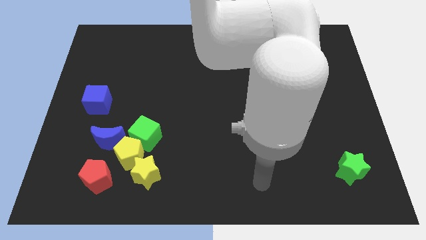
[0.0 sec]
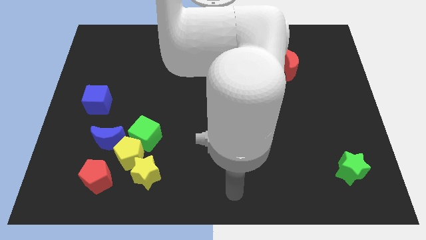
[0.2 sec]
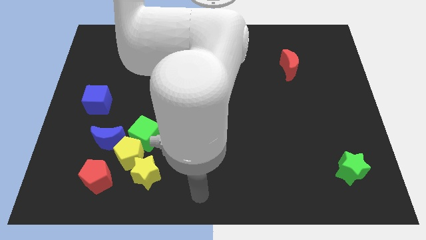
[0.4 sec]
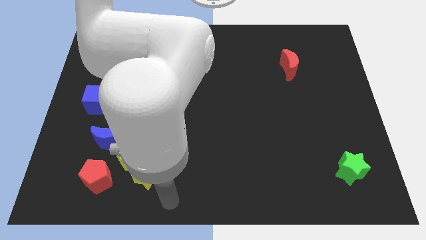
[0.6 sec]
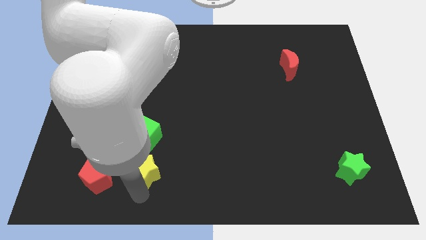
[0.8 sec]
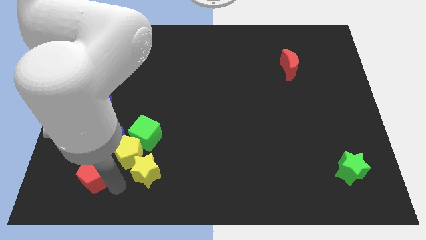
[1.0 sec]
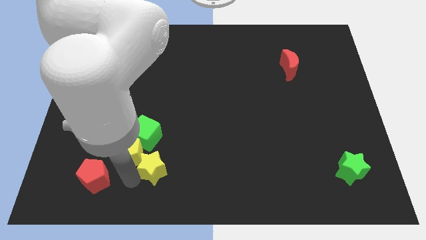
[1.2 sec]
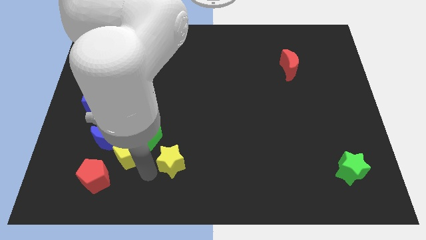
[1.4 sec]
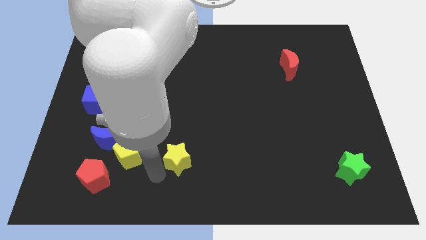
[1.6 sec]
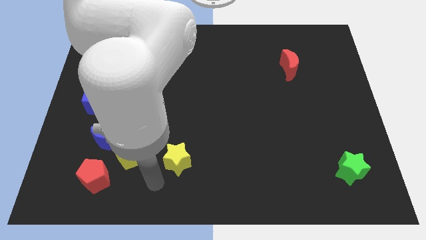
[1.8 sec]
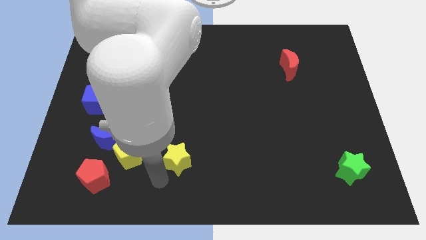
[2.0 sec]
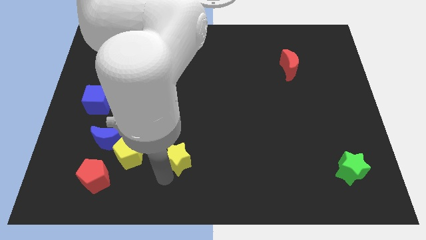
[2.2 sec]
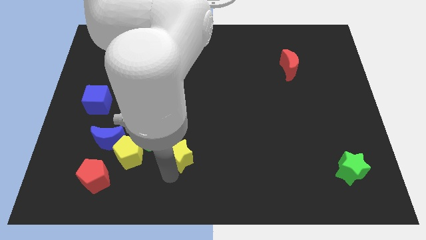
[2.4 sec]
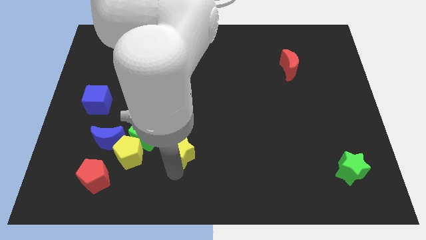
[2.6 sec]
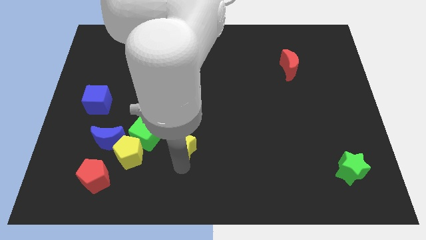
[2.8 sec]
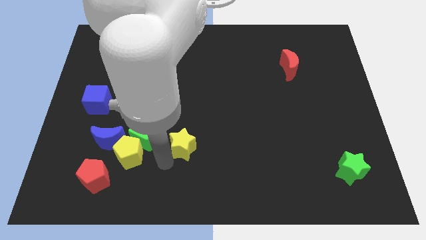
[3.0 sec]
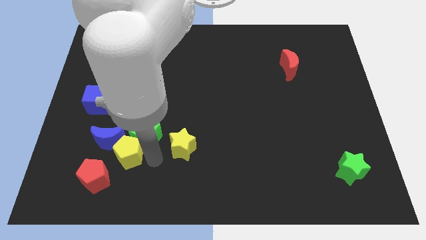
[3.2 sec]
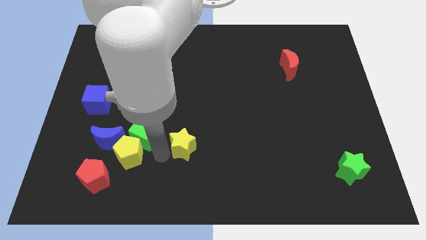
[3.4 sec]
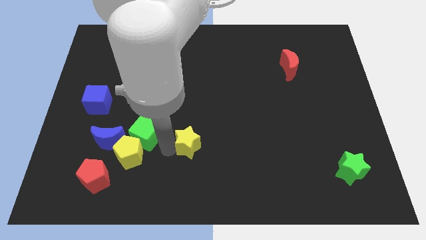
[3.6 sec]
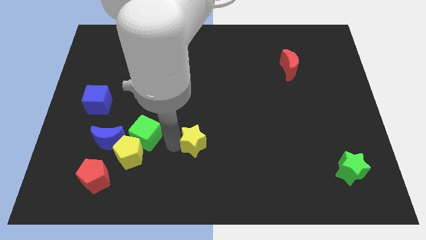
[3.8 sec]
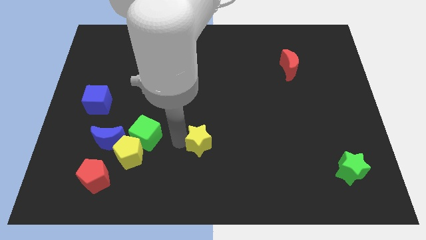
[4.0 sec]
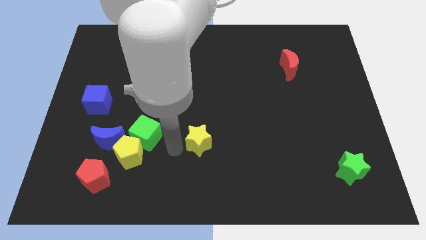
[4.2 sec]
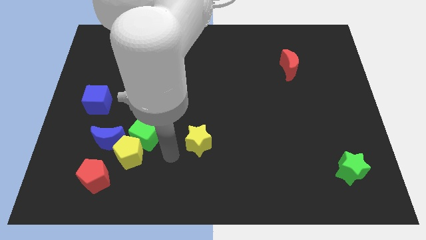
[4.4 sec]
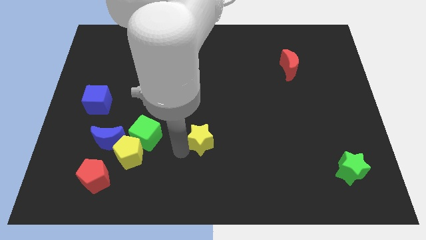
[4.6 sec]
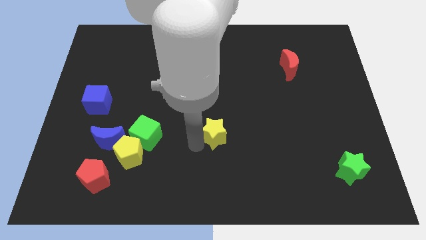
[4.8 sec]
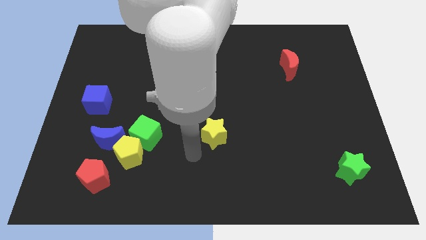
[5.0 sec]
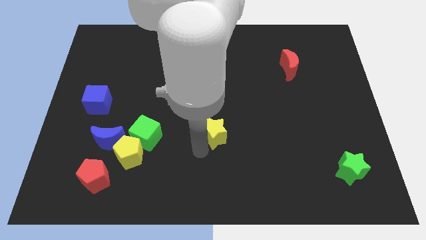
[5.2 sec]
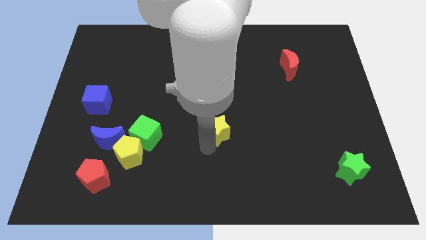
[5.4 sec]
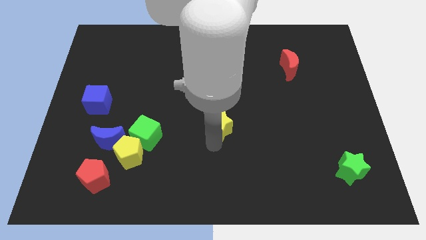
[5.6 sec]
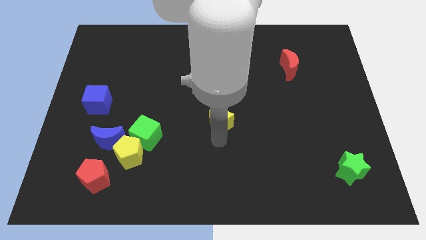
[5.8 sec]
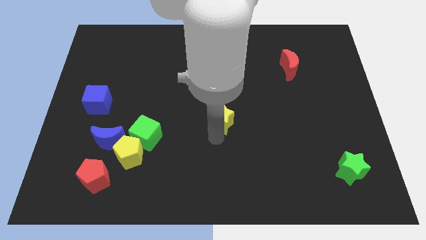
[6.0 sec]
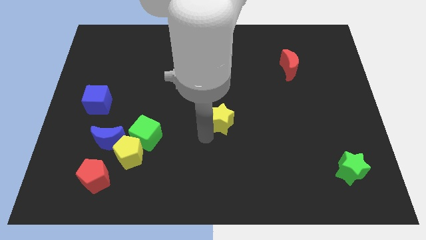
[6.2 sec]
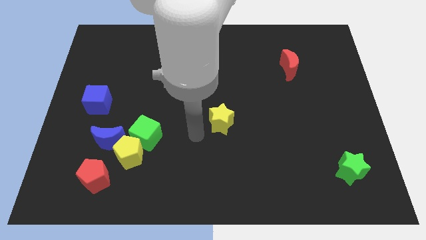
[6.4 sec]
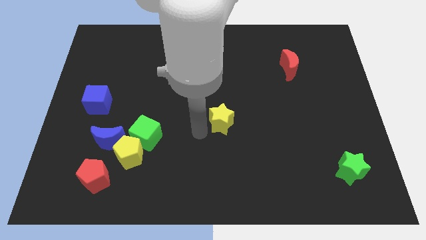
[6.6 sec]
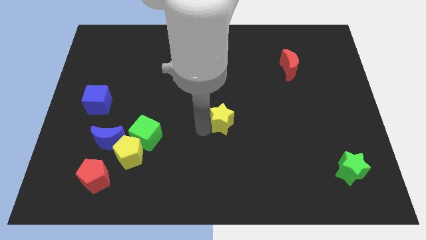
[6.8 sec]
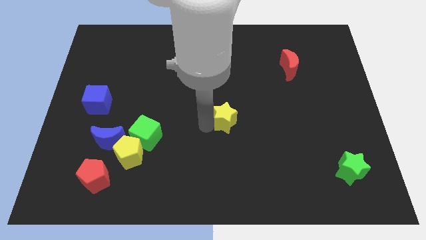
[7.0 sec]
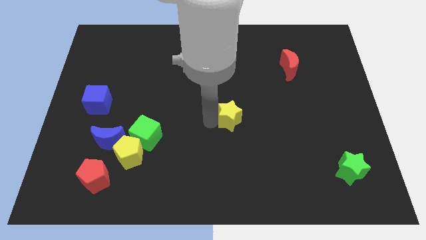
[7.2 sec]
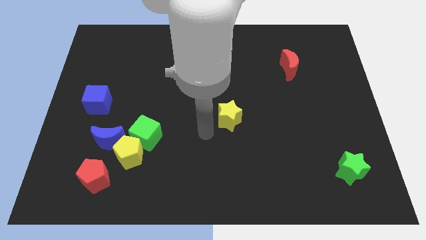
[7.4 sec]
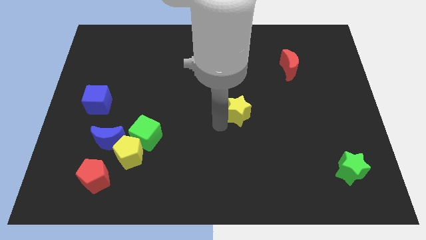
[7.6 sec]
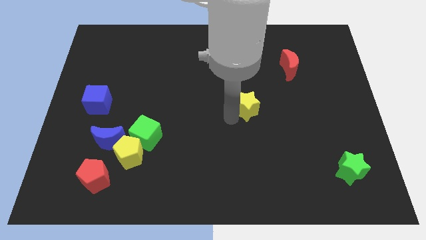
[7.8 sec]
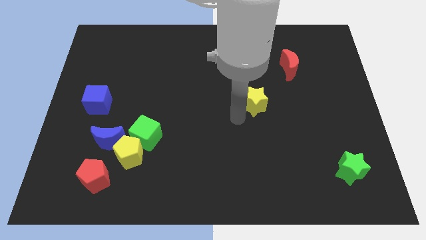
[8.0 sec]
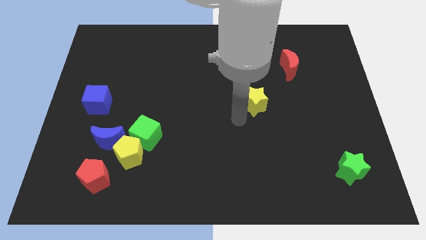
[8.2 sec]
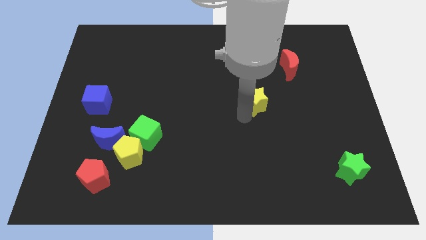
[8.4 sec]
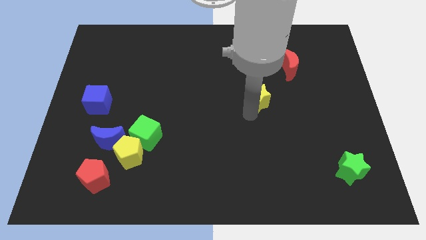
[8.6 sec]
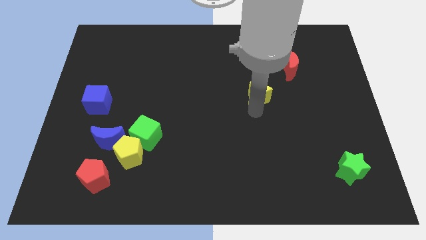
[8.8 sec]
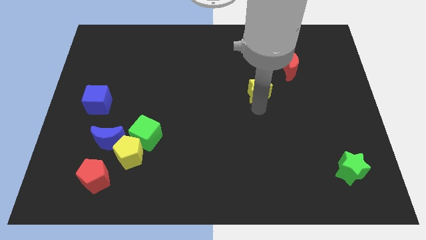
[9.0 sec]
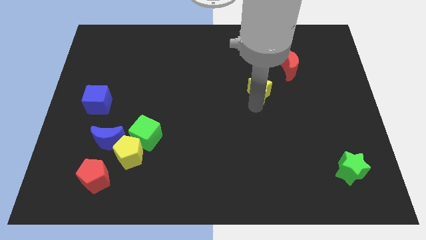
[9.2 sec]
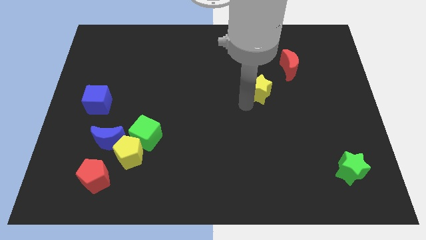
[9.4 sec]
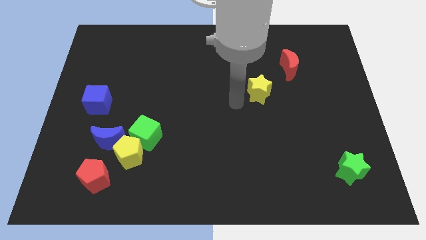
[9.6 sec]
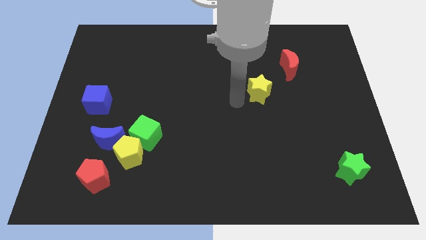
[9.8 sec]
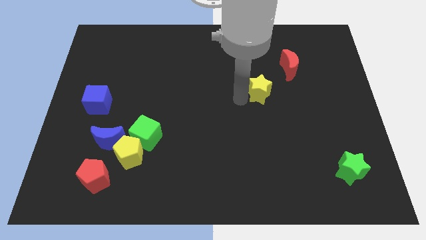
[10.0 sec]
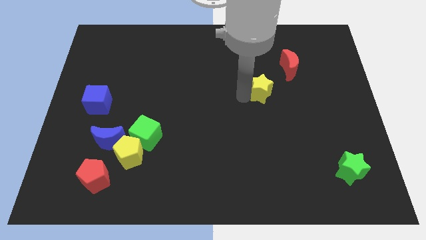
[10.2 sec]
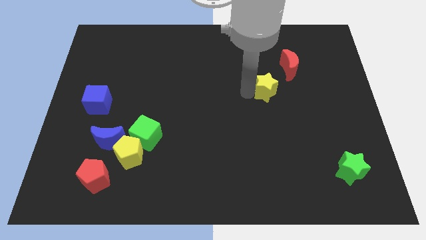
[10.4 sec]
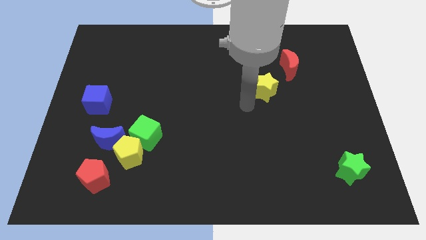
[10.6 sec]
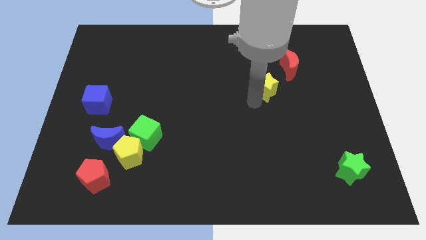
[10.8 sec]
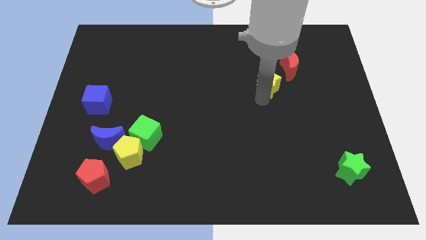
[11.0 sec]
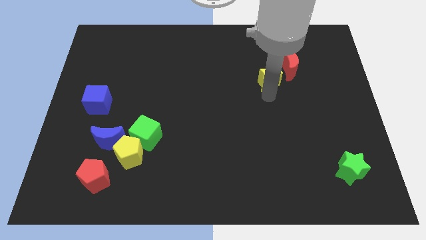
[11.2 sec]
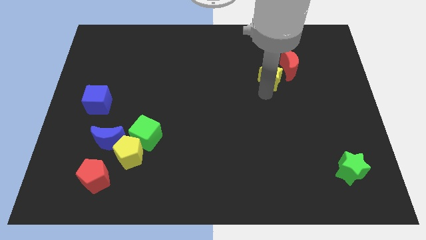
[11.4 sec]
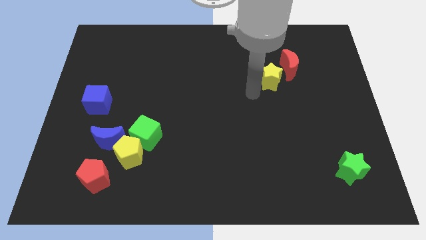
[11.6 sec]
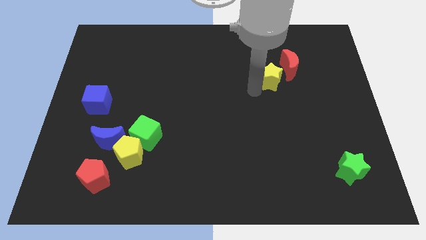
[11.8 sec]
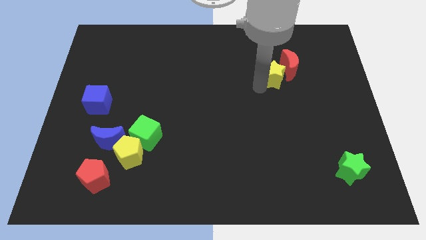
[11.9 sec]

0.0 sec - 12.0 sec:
move the yellow star close to the red moon

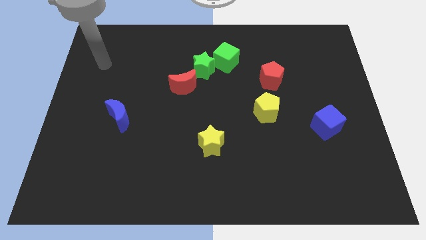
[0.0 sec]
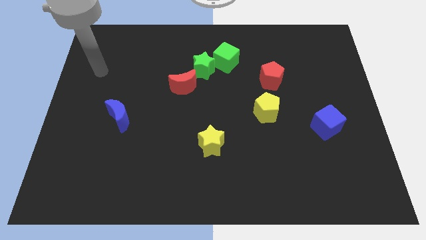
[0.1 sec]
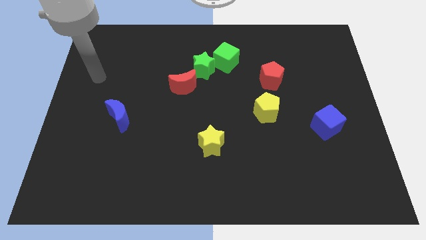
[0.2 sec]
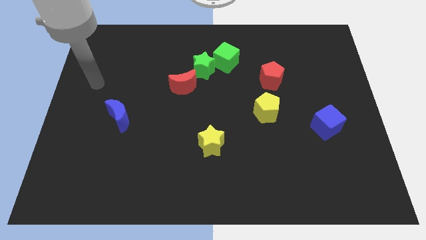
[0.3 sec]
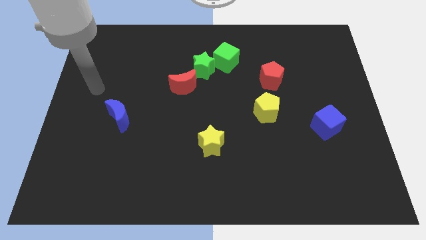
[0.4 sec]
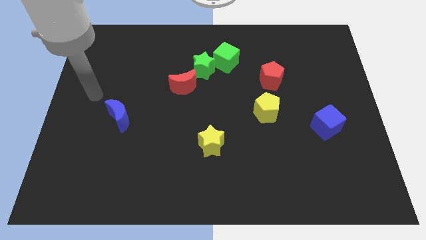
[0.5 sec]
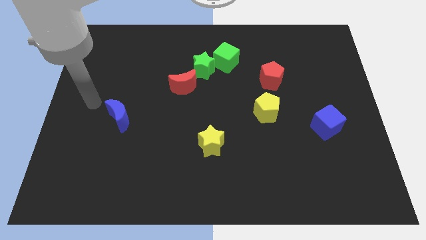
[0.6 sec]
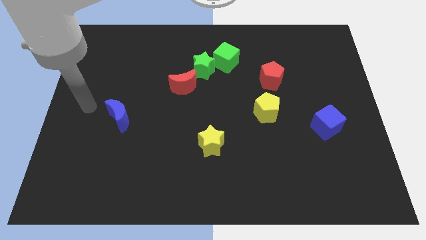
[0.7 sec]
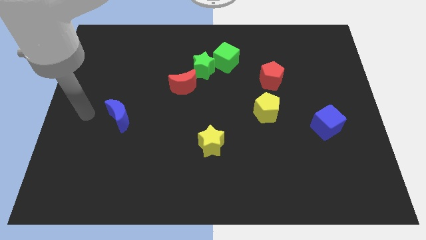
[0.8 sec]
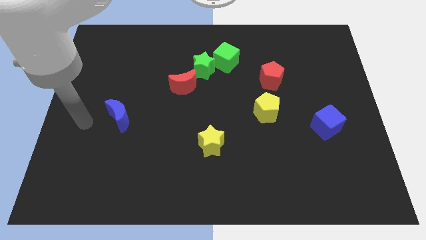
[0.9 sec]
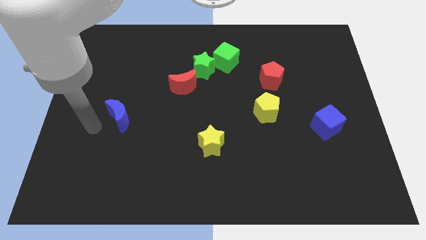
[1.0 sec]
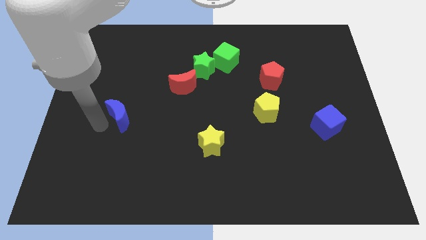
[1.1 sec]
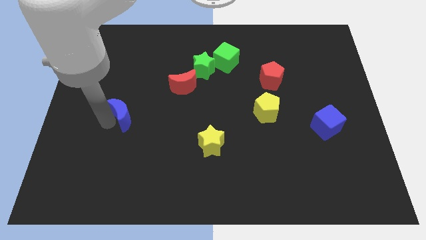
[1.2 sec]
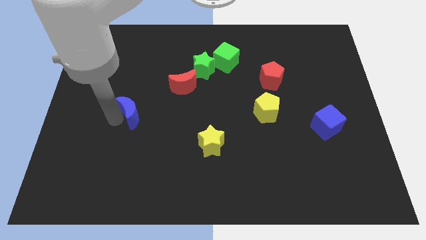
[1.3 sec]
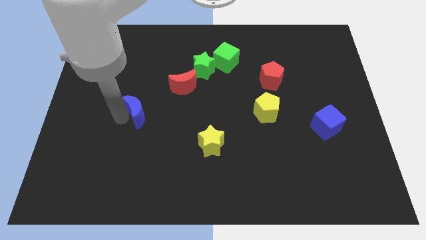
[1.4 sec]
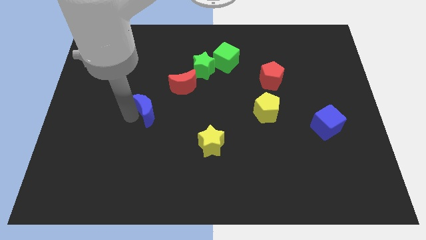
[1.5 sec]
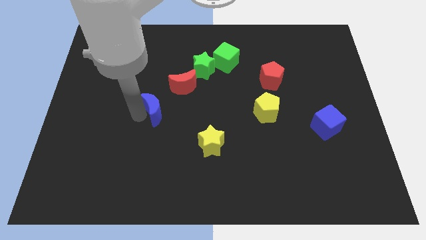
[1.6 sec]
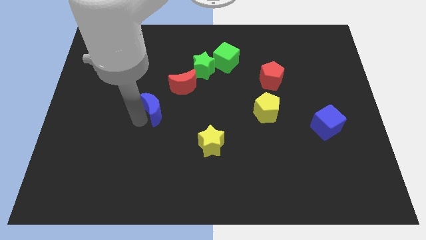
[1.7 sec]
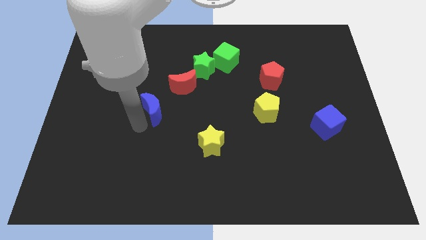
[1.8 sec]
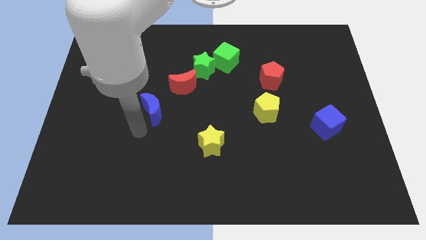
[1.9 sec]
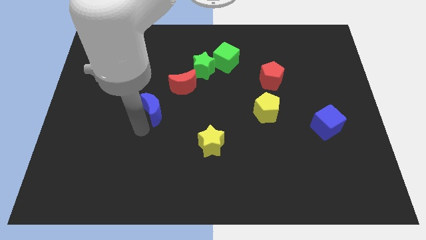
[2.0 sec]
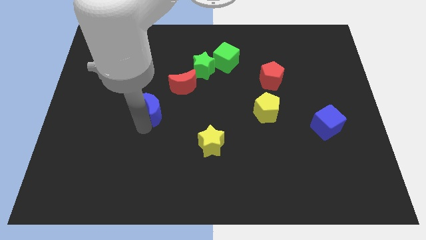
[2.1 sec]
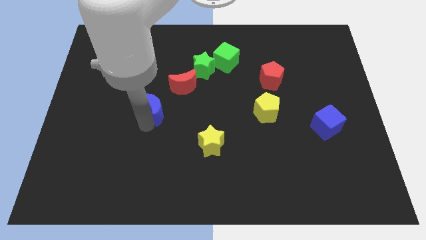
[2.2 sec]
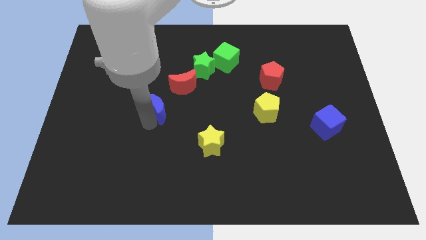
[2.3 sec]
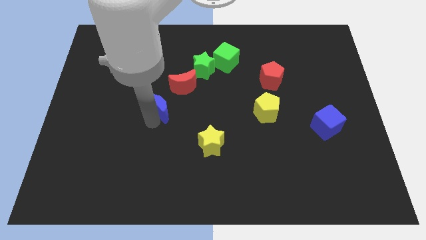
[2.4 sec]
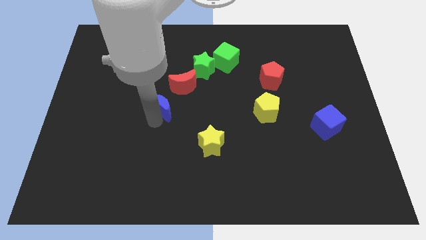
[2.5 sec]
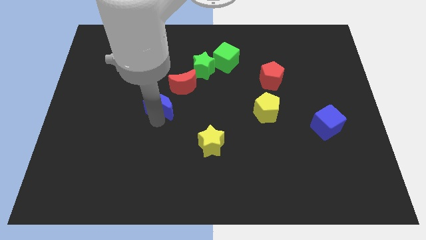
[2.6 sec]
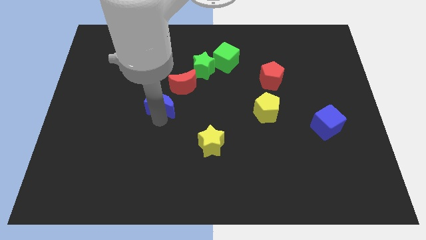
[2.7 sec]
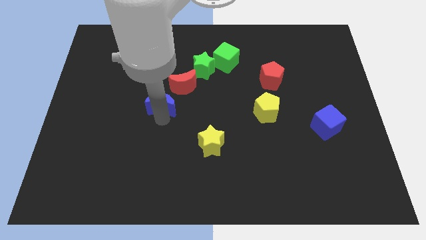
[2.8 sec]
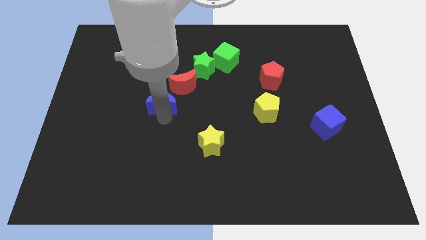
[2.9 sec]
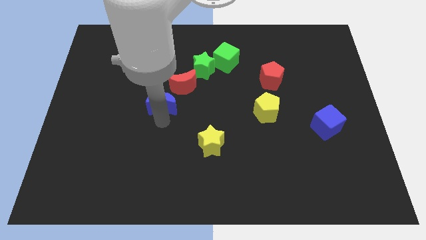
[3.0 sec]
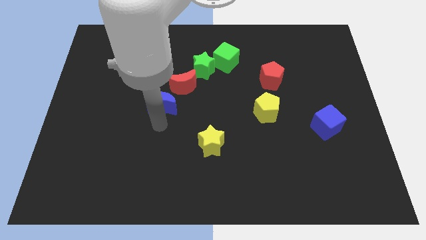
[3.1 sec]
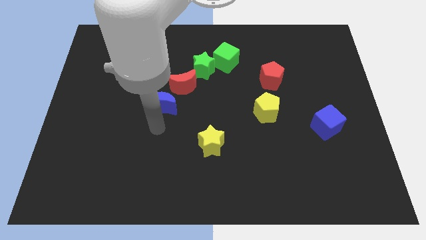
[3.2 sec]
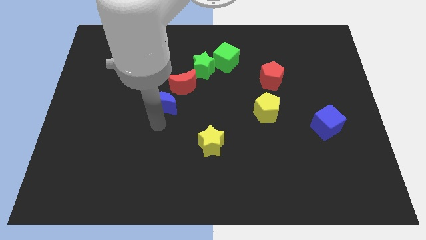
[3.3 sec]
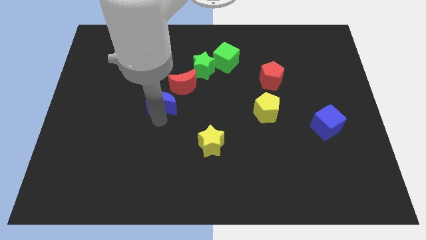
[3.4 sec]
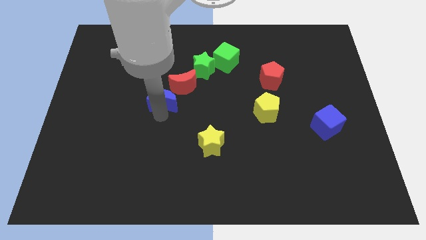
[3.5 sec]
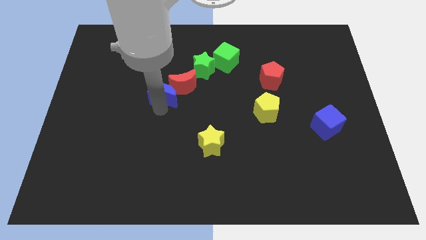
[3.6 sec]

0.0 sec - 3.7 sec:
push the blue moon close to the red moon
